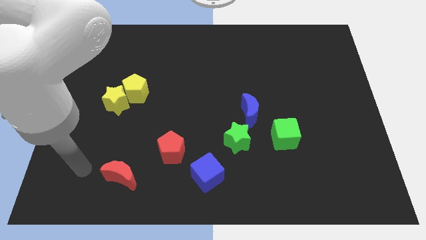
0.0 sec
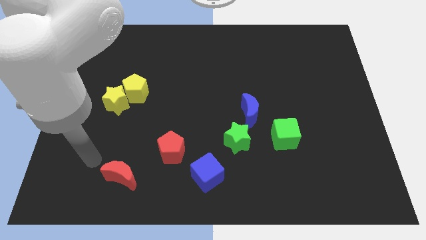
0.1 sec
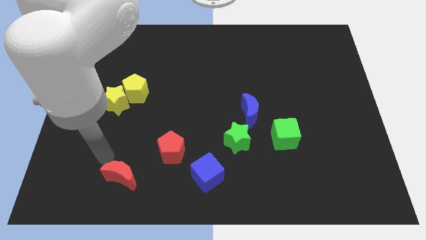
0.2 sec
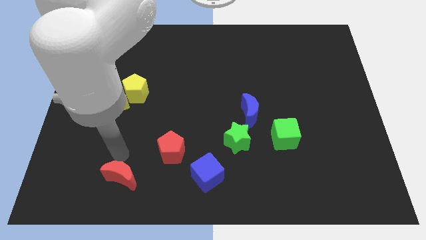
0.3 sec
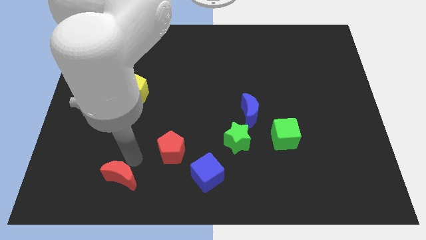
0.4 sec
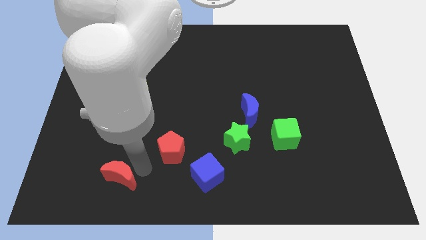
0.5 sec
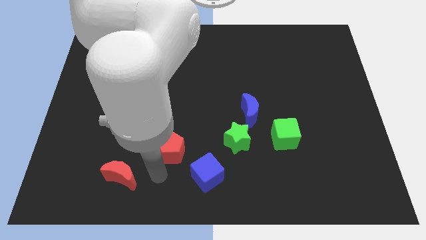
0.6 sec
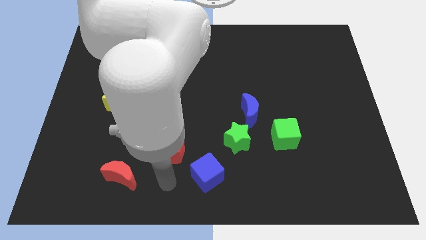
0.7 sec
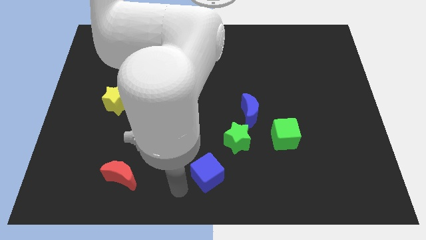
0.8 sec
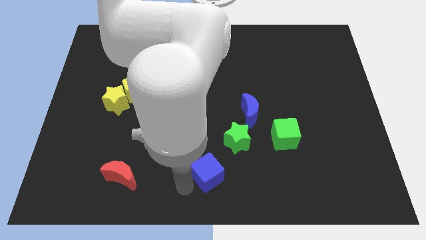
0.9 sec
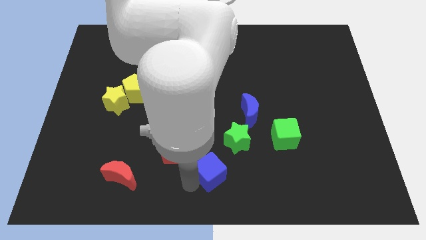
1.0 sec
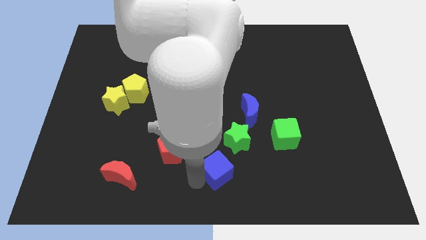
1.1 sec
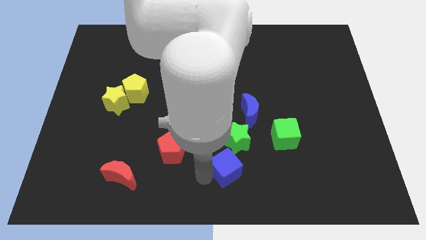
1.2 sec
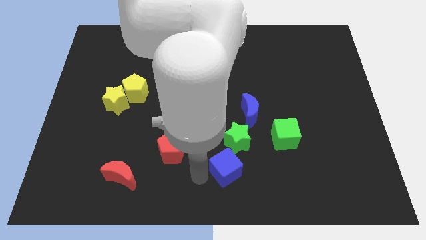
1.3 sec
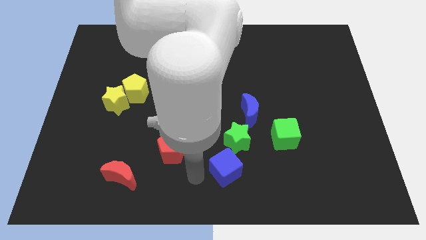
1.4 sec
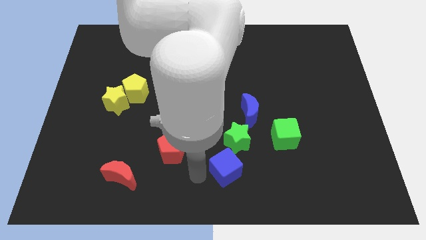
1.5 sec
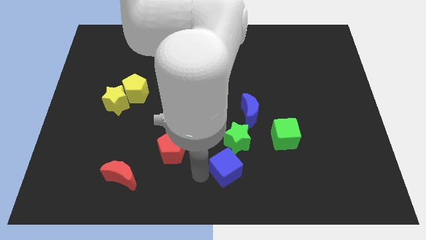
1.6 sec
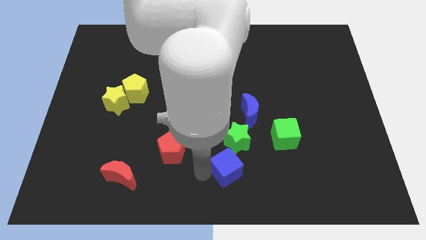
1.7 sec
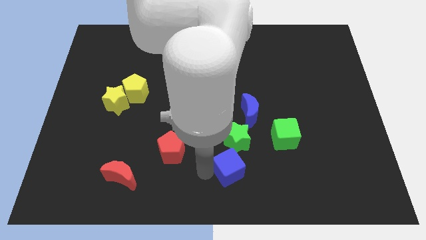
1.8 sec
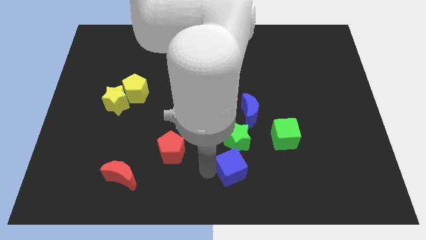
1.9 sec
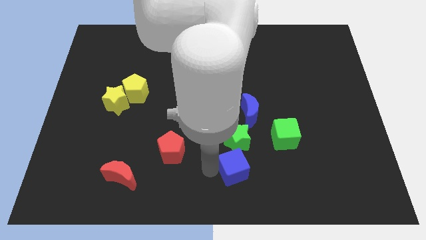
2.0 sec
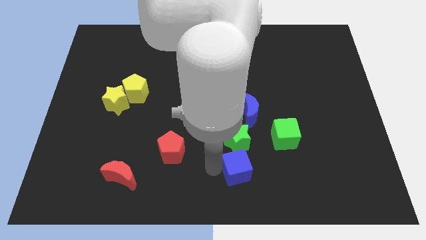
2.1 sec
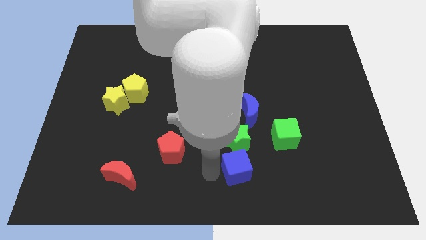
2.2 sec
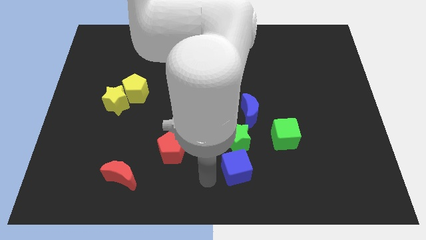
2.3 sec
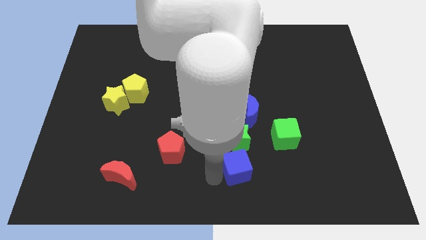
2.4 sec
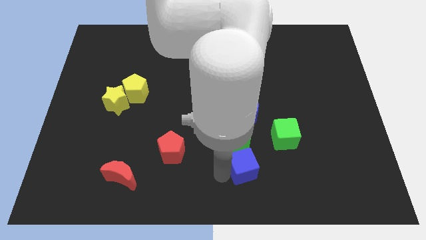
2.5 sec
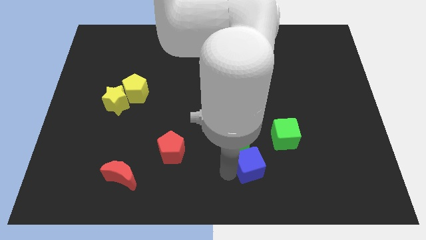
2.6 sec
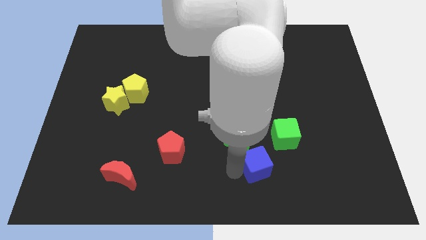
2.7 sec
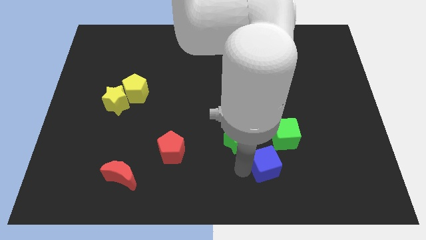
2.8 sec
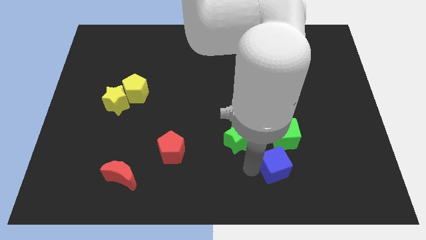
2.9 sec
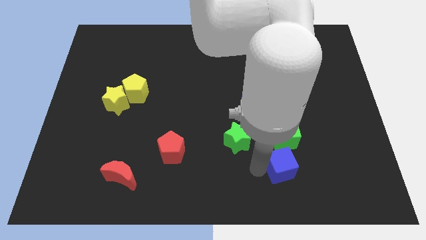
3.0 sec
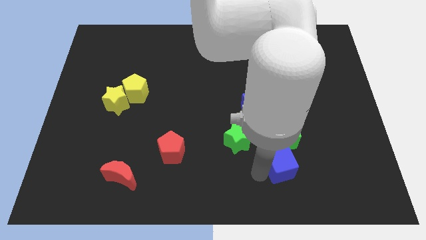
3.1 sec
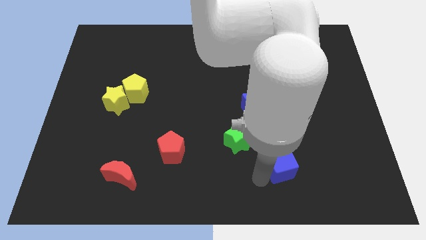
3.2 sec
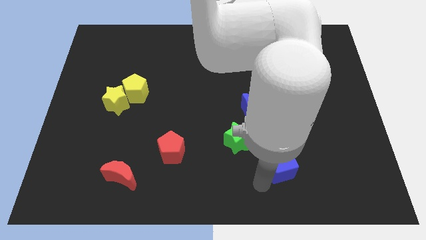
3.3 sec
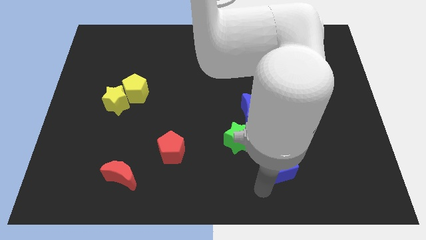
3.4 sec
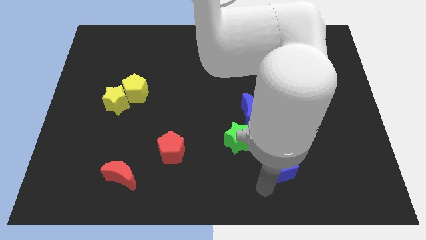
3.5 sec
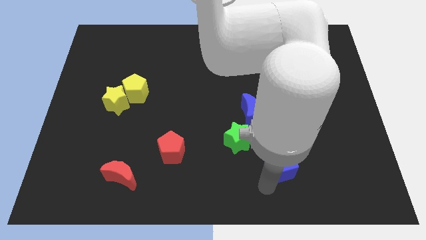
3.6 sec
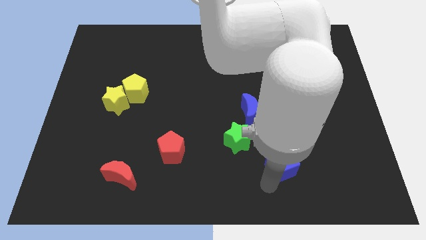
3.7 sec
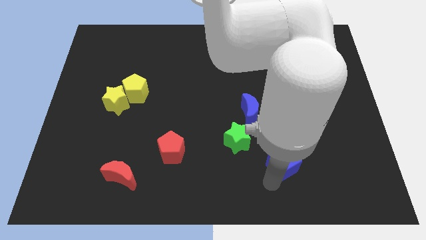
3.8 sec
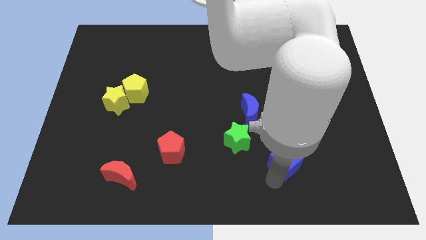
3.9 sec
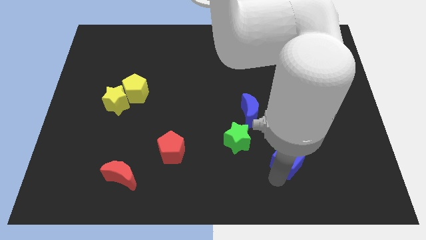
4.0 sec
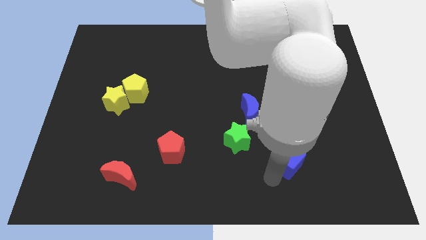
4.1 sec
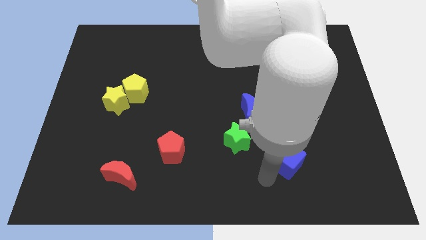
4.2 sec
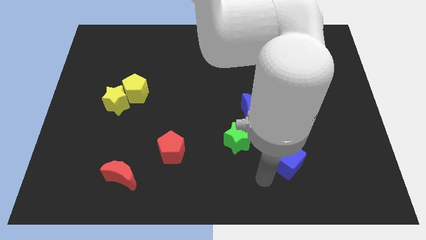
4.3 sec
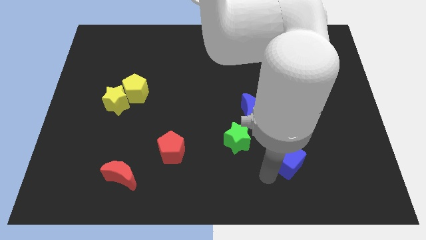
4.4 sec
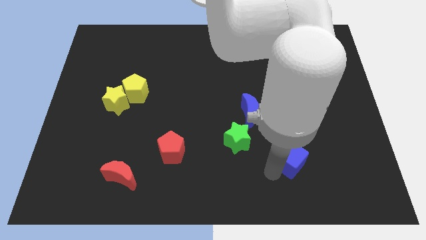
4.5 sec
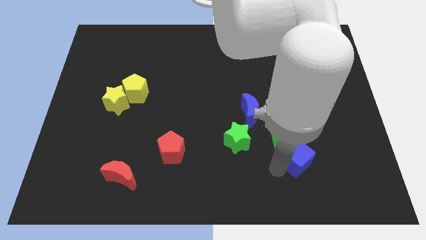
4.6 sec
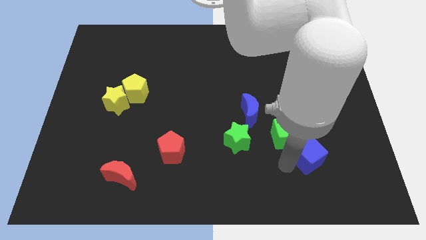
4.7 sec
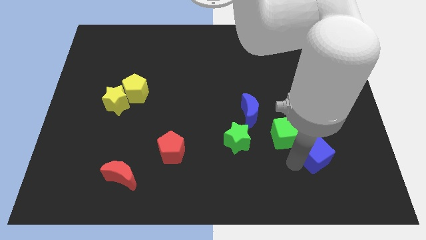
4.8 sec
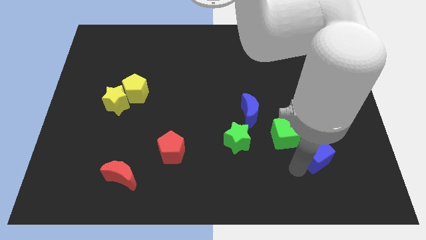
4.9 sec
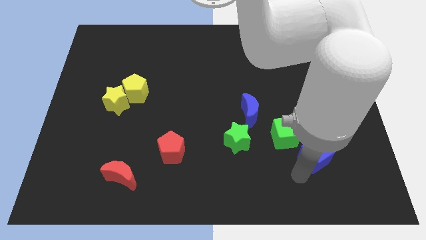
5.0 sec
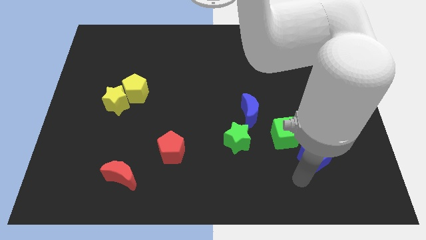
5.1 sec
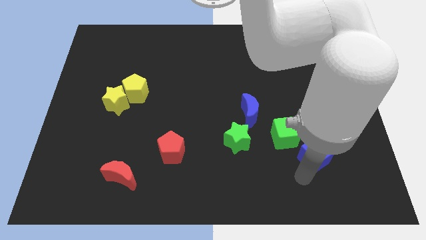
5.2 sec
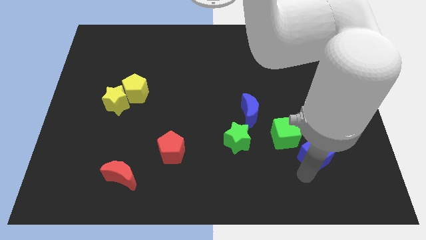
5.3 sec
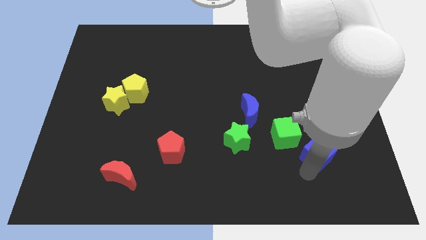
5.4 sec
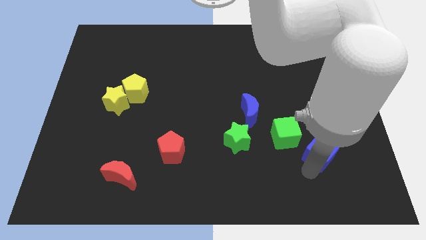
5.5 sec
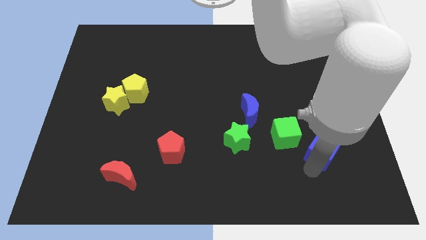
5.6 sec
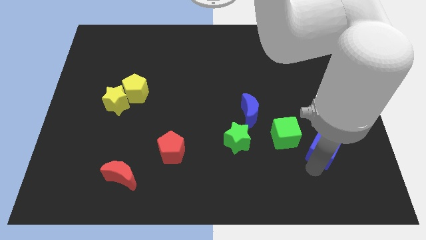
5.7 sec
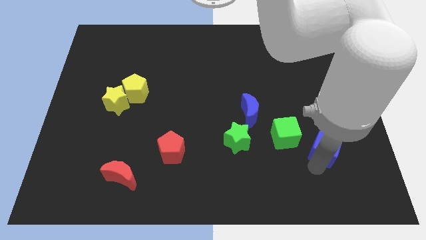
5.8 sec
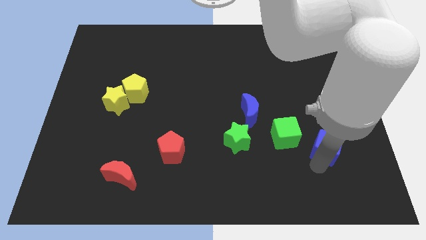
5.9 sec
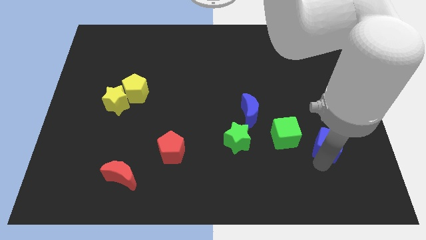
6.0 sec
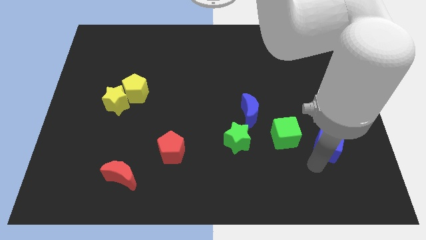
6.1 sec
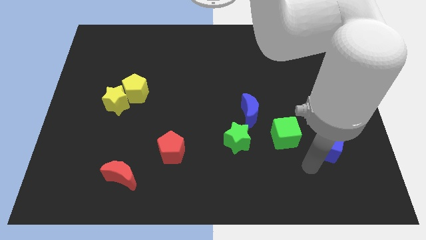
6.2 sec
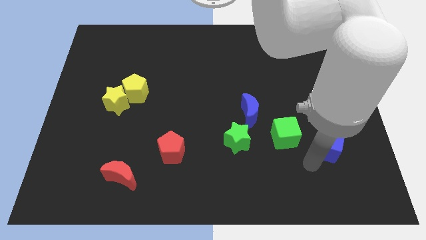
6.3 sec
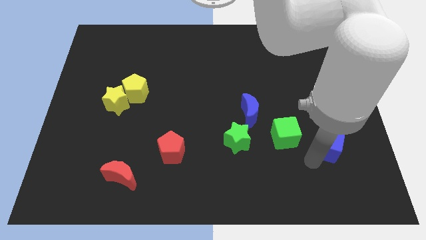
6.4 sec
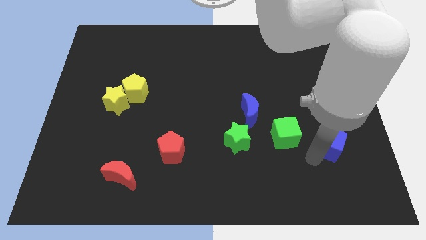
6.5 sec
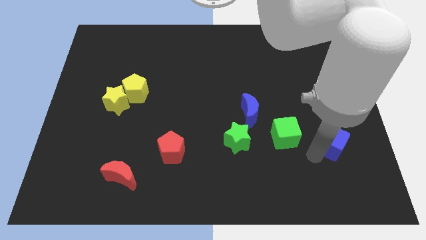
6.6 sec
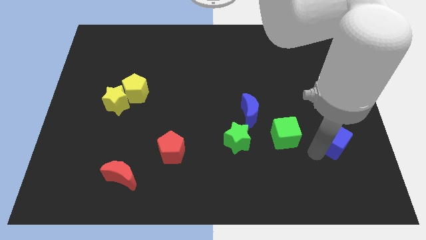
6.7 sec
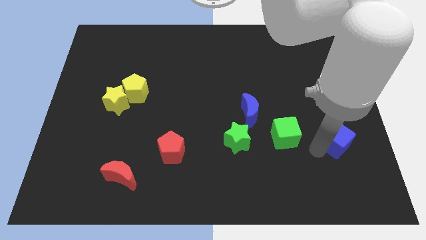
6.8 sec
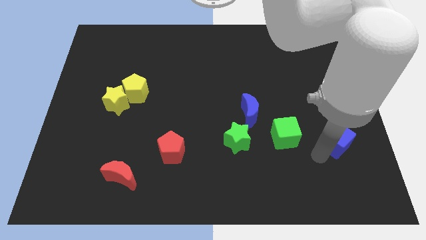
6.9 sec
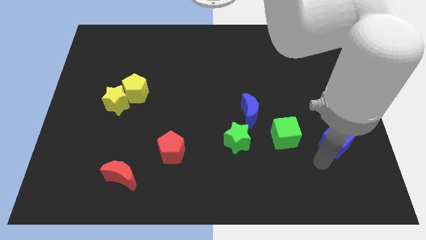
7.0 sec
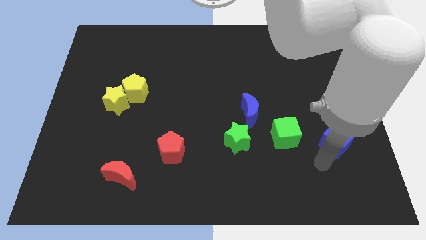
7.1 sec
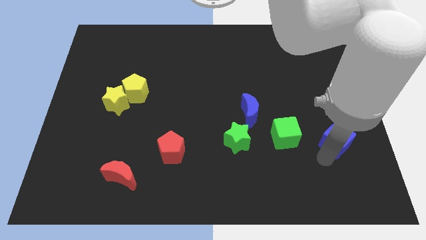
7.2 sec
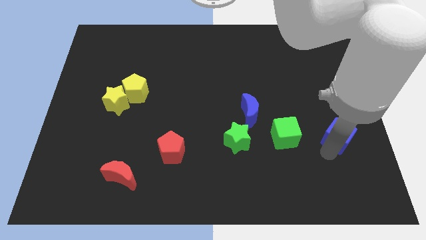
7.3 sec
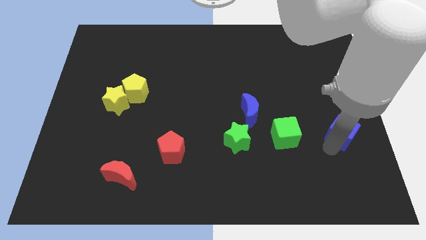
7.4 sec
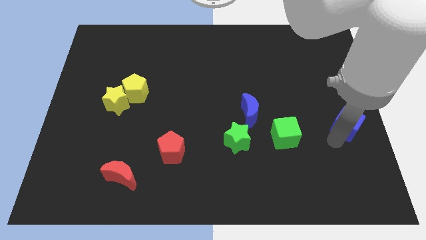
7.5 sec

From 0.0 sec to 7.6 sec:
push the blue cube to the right side of the board

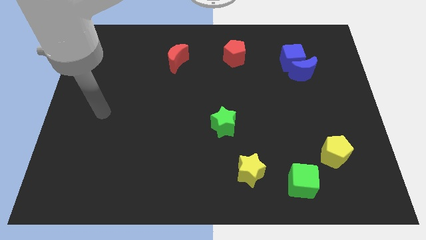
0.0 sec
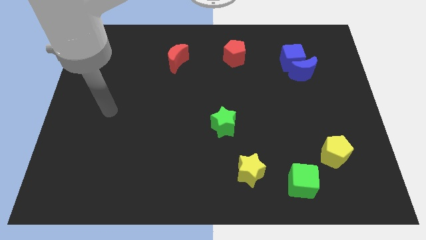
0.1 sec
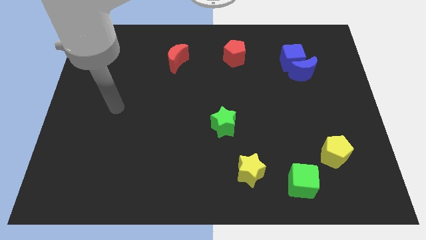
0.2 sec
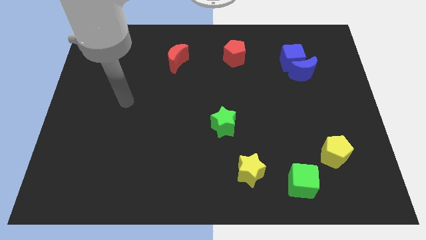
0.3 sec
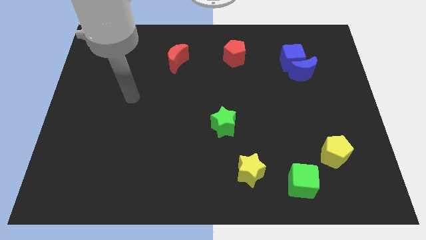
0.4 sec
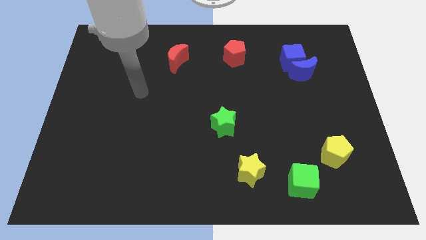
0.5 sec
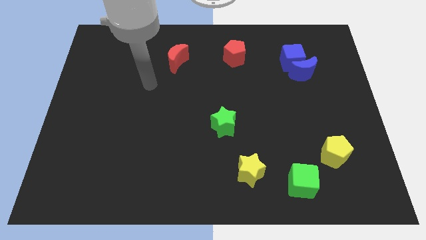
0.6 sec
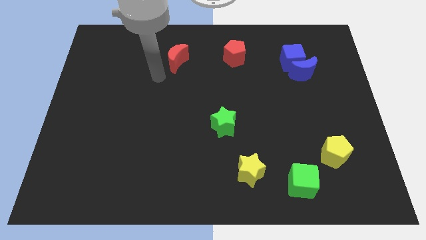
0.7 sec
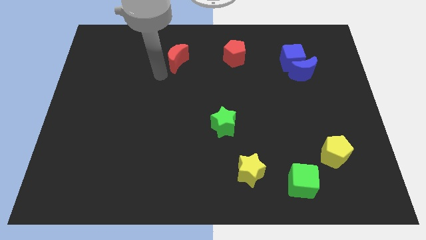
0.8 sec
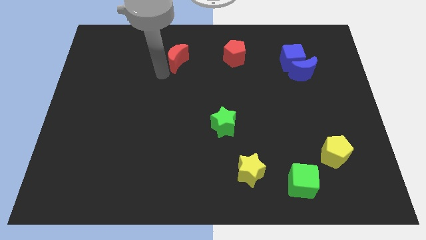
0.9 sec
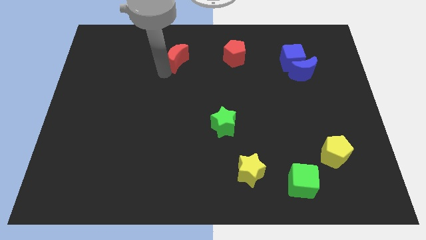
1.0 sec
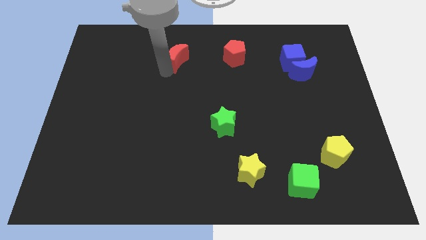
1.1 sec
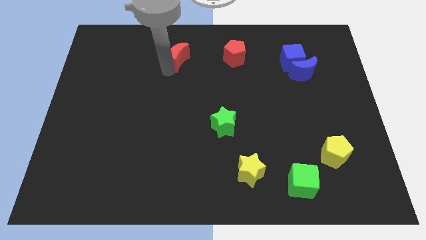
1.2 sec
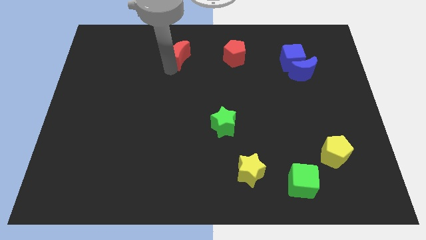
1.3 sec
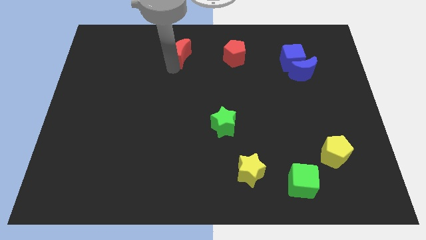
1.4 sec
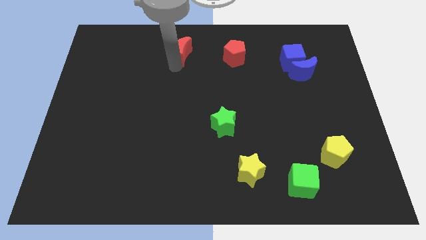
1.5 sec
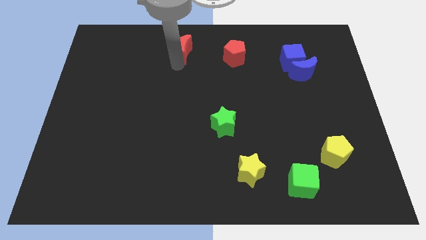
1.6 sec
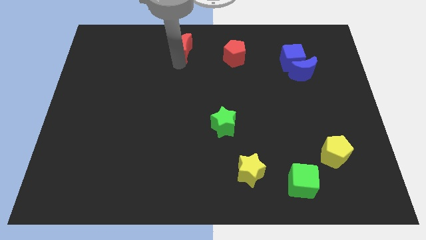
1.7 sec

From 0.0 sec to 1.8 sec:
slide the red moon to the top
